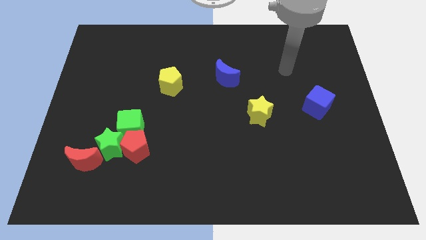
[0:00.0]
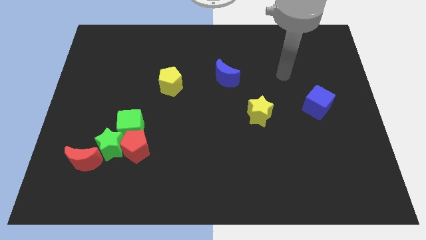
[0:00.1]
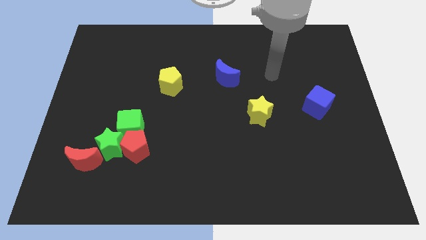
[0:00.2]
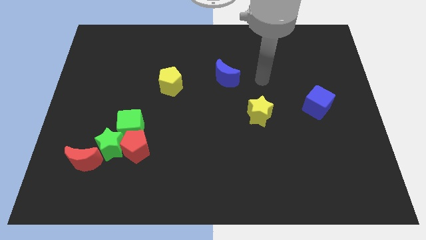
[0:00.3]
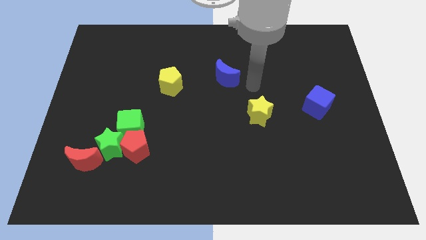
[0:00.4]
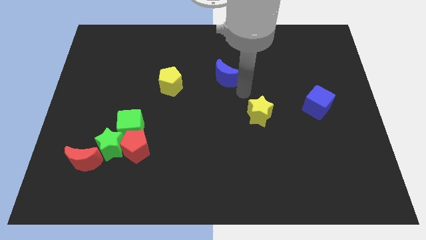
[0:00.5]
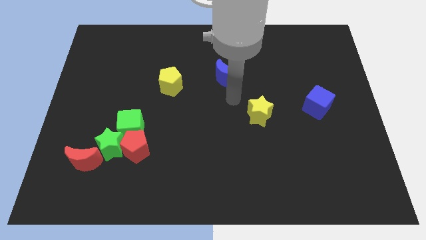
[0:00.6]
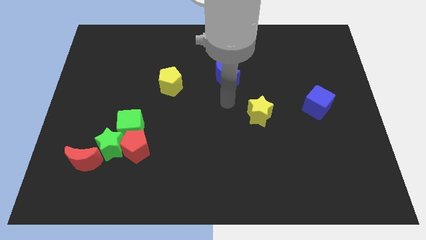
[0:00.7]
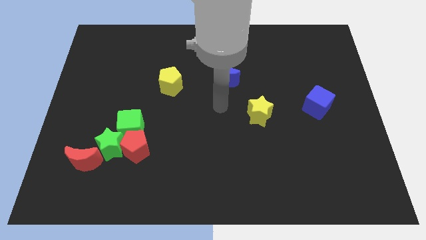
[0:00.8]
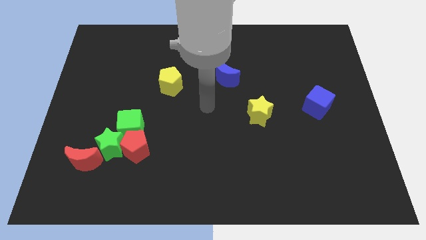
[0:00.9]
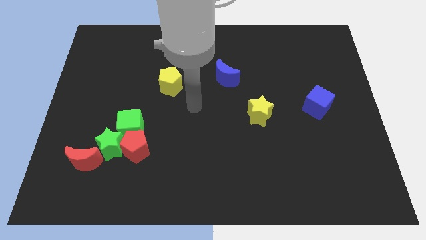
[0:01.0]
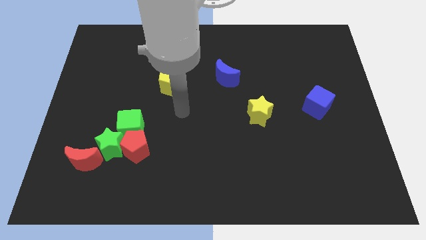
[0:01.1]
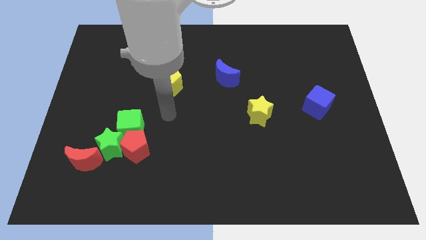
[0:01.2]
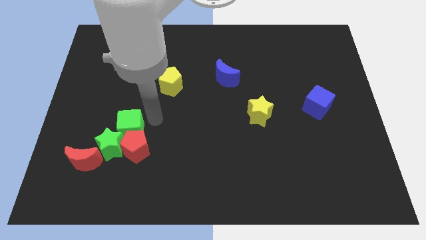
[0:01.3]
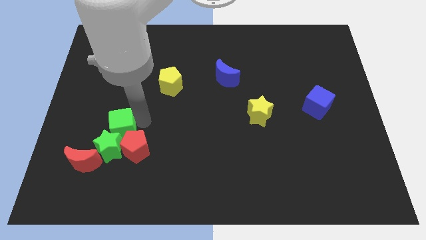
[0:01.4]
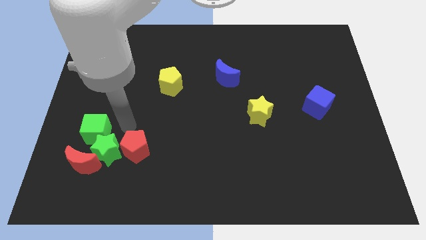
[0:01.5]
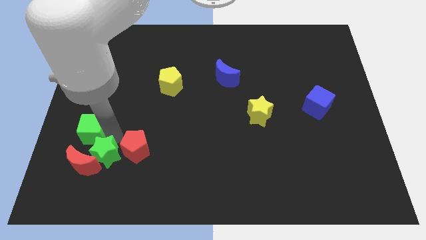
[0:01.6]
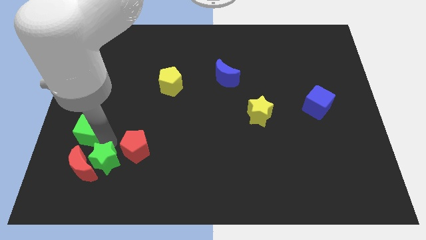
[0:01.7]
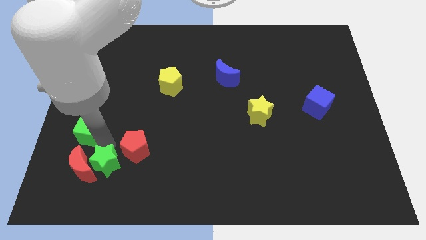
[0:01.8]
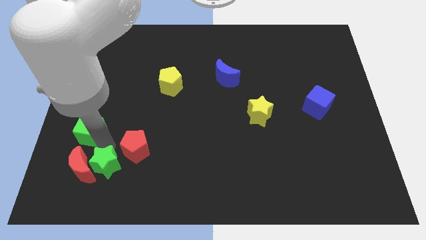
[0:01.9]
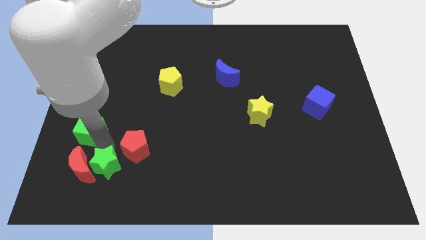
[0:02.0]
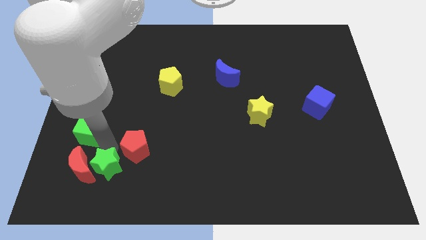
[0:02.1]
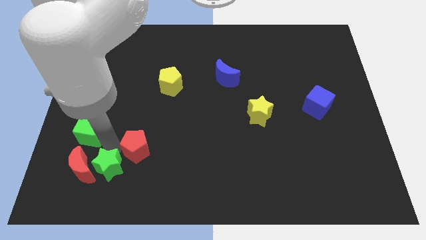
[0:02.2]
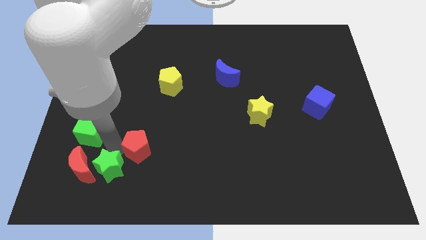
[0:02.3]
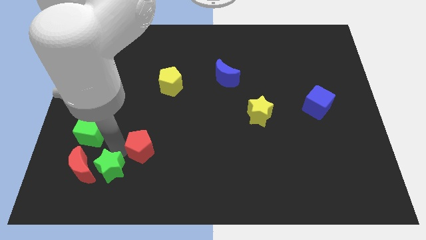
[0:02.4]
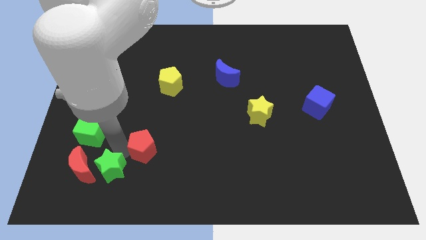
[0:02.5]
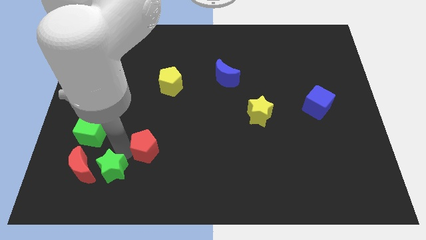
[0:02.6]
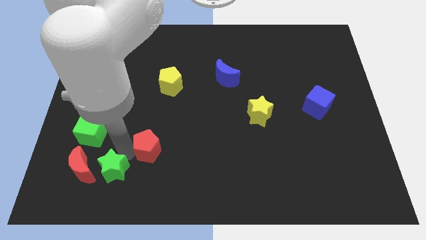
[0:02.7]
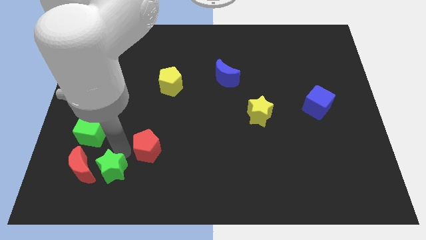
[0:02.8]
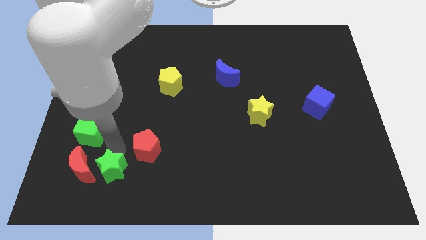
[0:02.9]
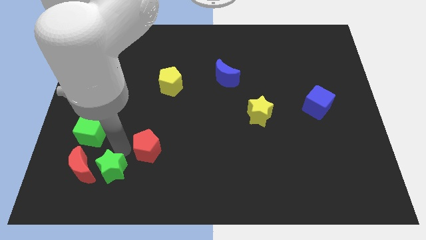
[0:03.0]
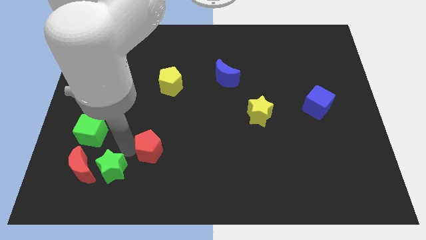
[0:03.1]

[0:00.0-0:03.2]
separate the red pentagon from the green star and green cube

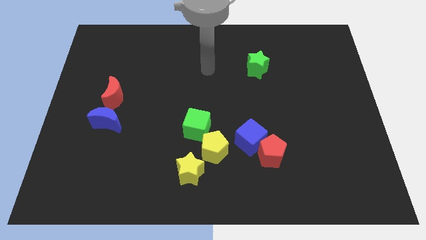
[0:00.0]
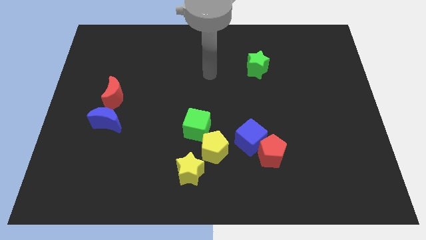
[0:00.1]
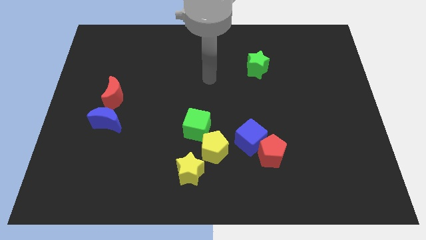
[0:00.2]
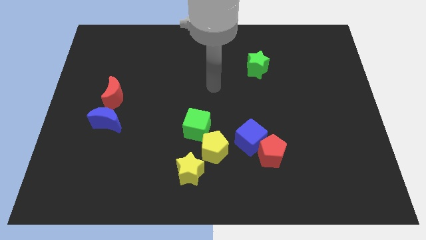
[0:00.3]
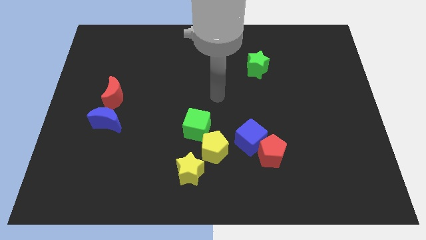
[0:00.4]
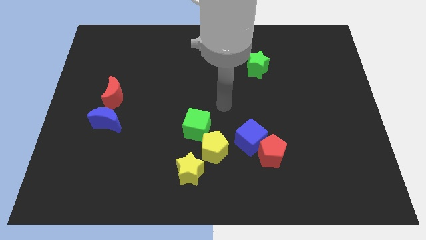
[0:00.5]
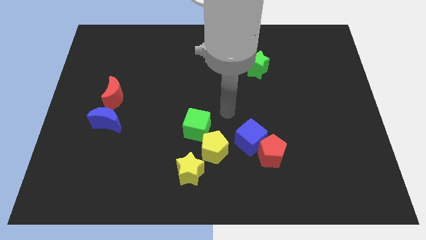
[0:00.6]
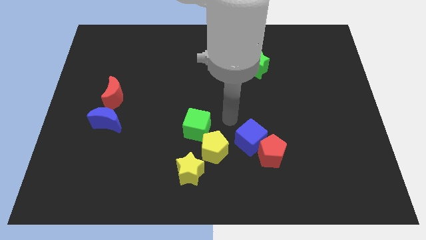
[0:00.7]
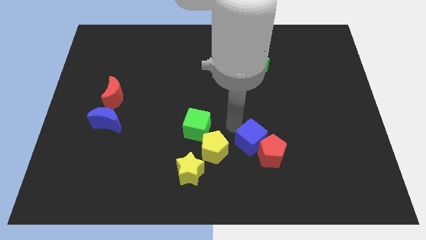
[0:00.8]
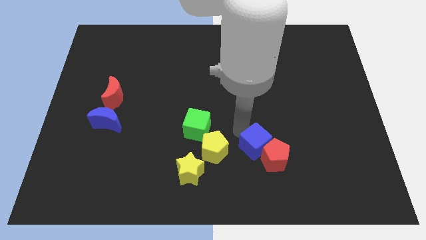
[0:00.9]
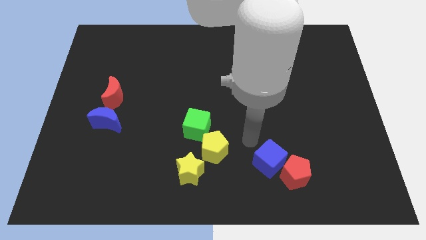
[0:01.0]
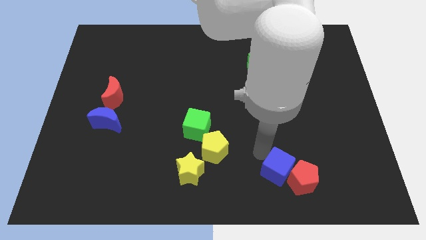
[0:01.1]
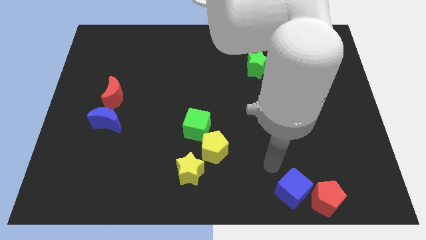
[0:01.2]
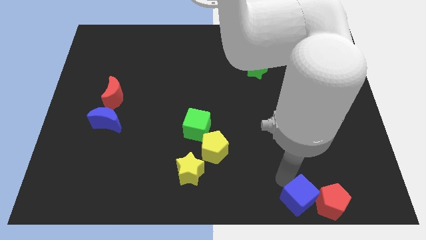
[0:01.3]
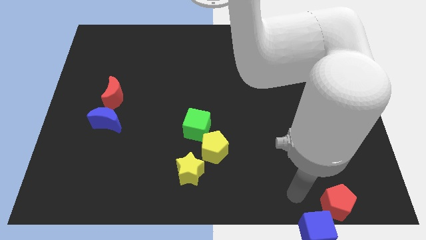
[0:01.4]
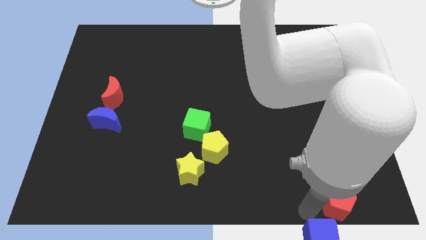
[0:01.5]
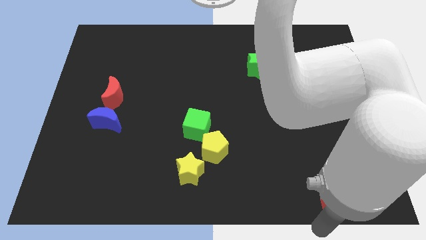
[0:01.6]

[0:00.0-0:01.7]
separate the red pentagon from the blue cube

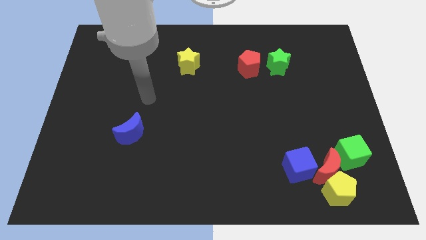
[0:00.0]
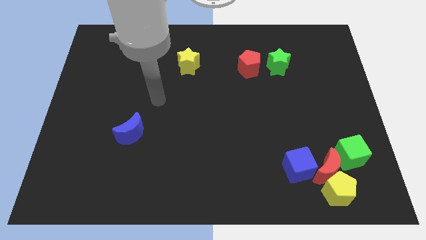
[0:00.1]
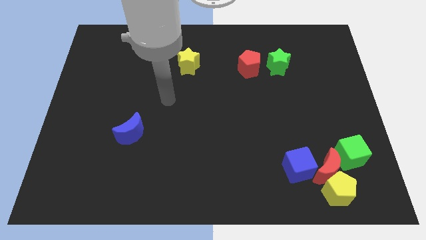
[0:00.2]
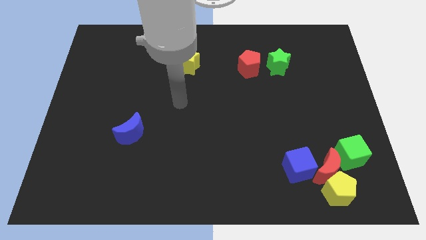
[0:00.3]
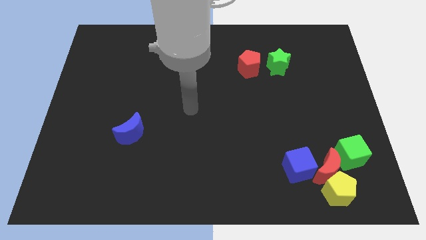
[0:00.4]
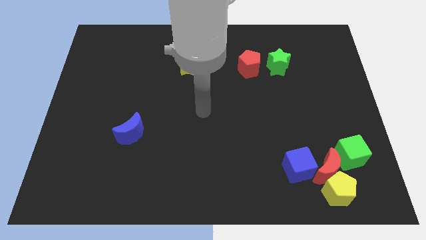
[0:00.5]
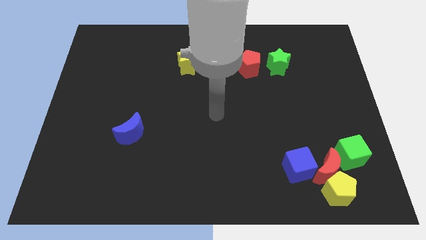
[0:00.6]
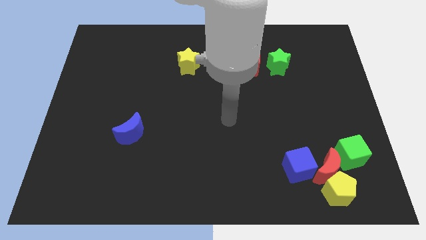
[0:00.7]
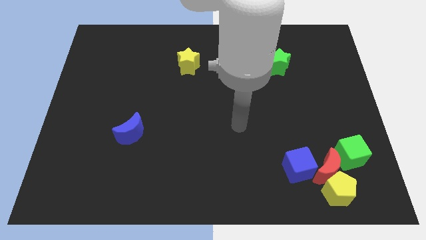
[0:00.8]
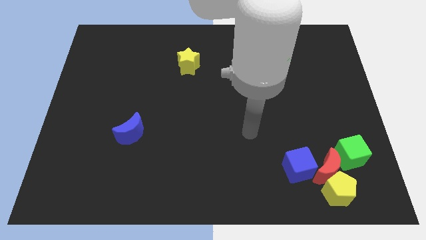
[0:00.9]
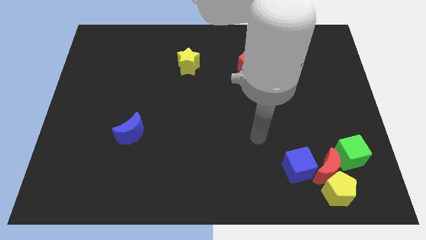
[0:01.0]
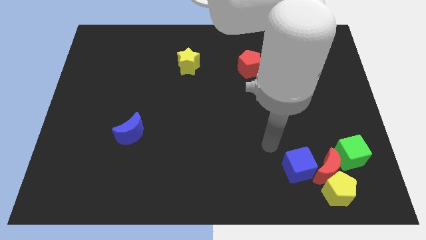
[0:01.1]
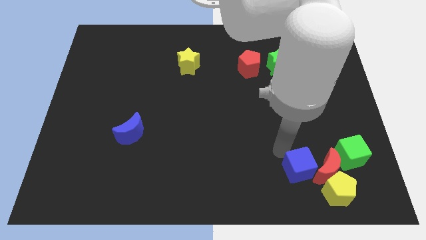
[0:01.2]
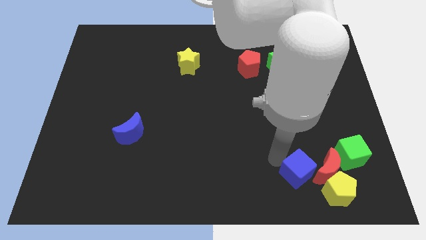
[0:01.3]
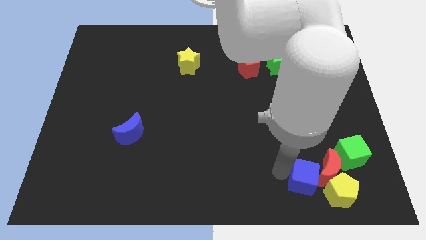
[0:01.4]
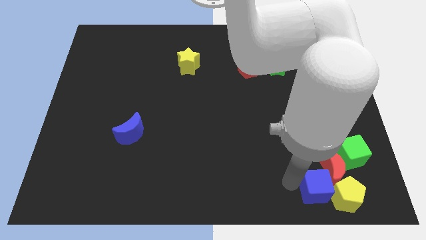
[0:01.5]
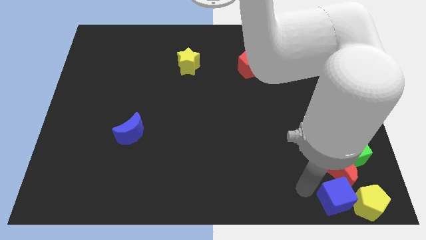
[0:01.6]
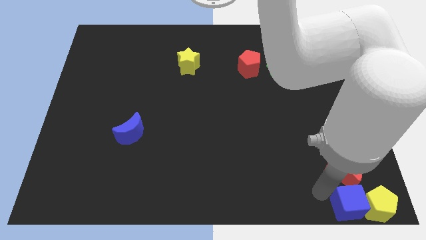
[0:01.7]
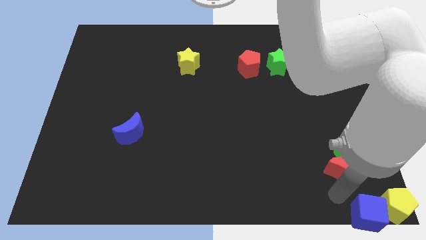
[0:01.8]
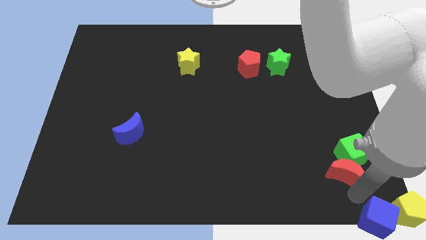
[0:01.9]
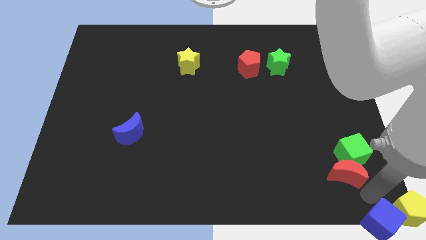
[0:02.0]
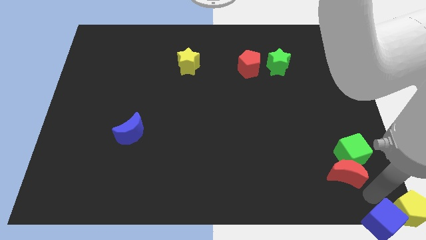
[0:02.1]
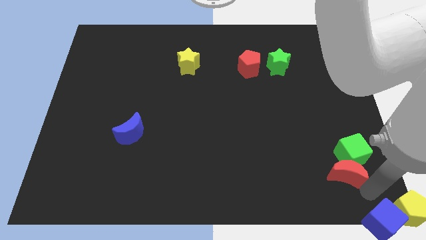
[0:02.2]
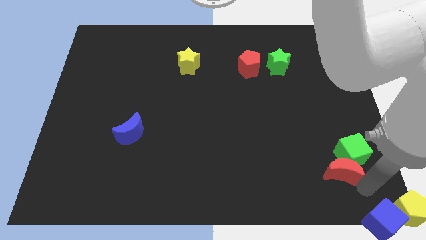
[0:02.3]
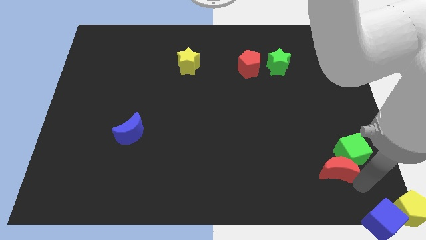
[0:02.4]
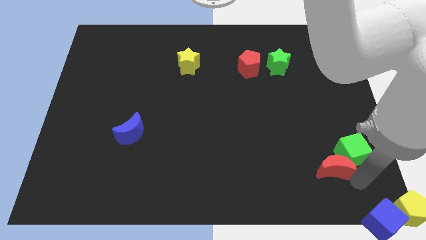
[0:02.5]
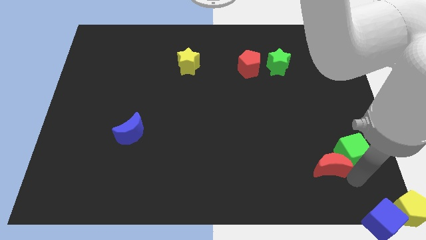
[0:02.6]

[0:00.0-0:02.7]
separate the red moon from the group

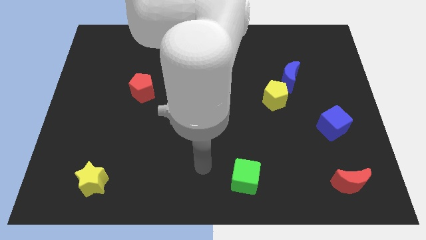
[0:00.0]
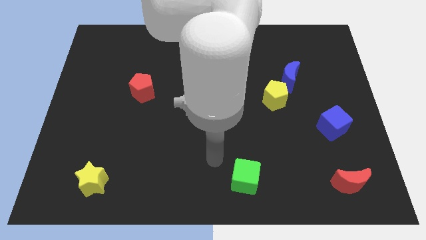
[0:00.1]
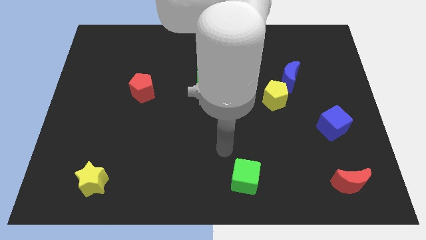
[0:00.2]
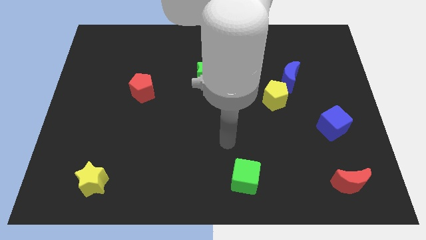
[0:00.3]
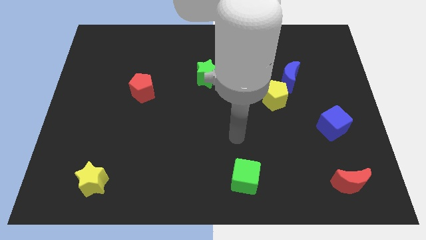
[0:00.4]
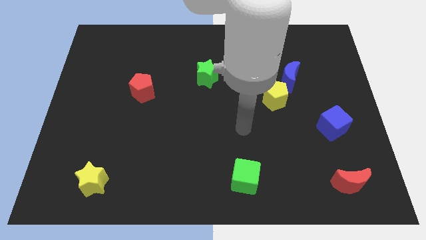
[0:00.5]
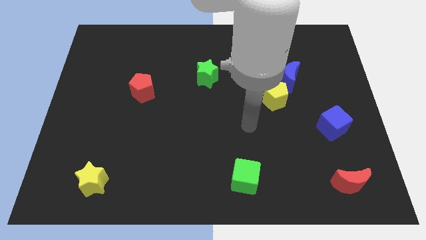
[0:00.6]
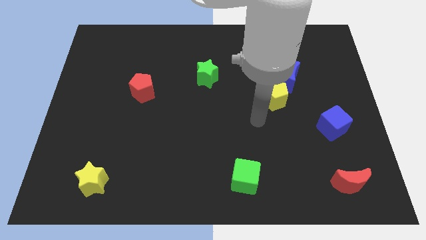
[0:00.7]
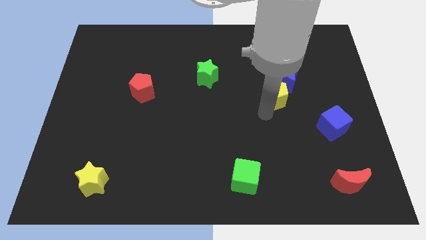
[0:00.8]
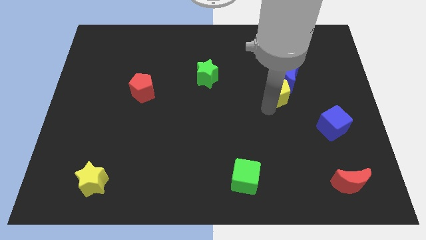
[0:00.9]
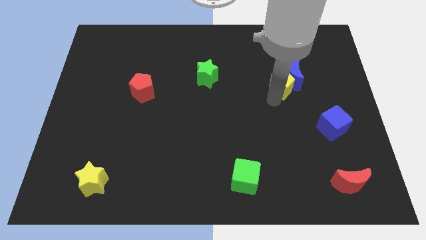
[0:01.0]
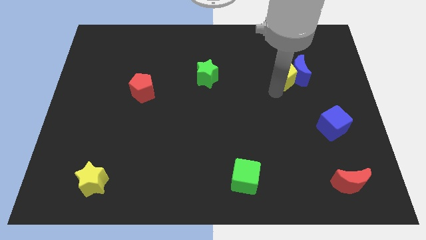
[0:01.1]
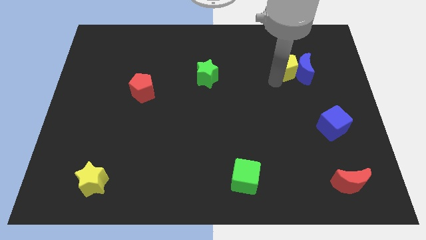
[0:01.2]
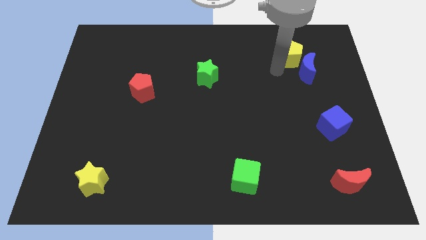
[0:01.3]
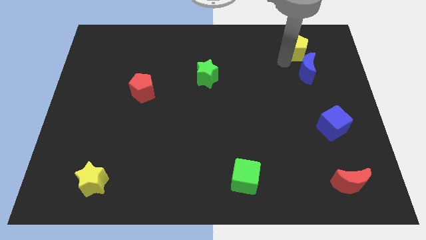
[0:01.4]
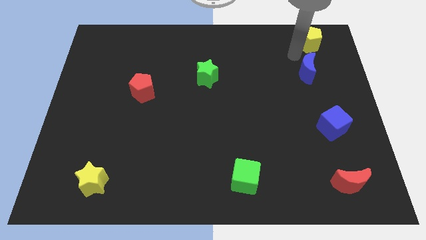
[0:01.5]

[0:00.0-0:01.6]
separate the blue moon from the yellow pentagon

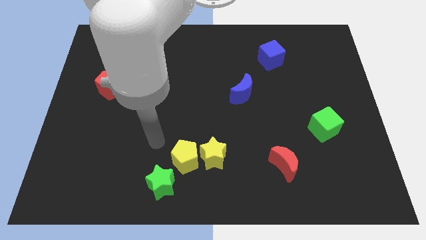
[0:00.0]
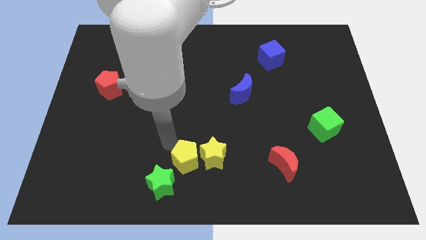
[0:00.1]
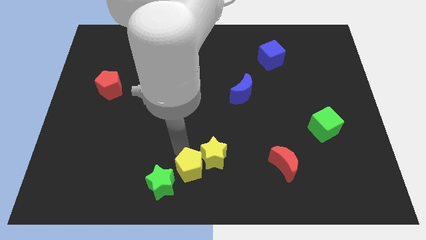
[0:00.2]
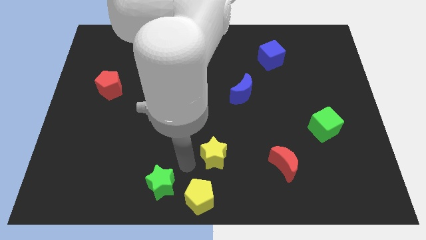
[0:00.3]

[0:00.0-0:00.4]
separate the yellow star from the yellow pentagon
